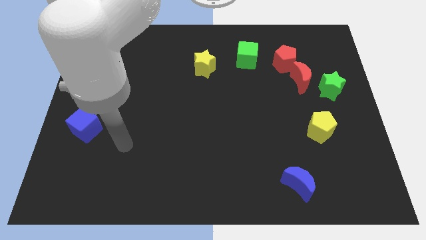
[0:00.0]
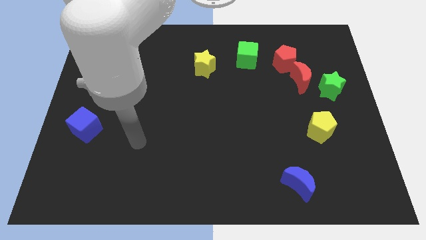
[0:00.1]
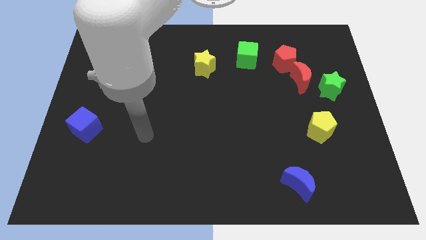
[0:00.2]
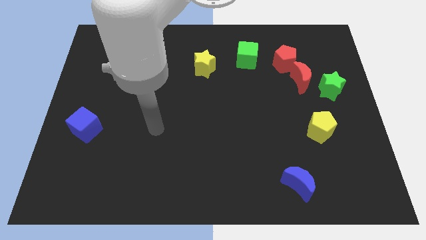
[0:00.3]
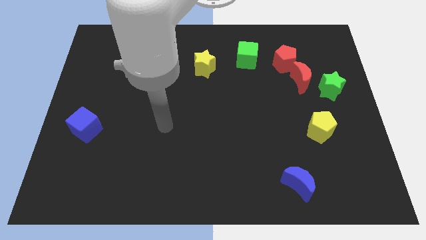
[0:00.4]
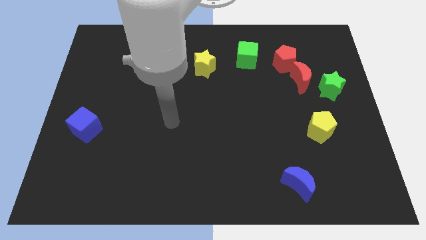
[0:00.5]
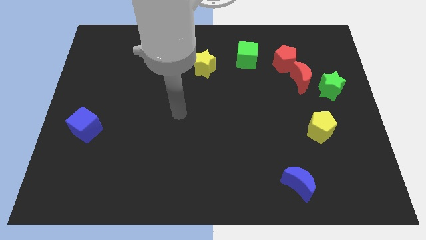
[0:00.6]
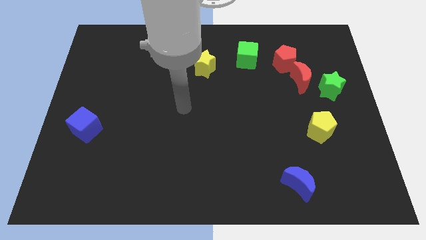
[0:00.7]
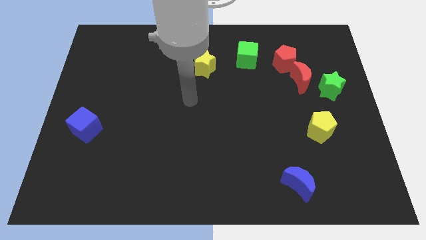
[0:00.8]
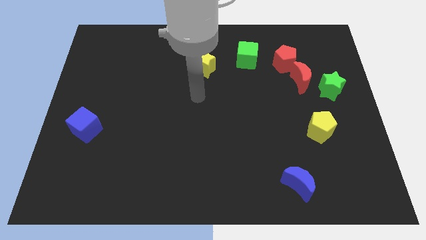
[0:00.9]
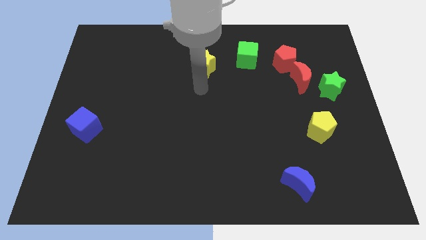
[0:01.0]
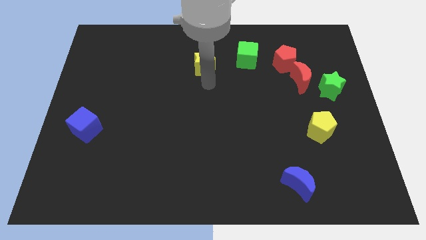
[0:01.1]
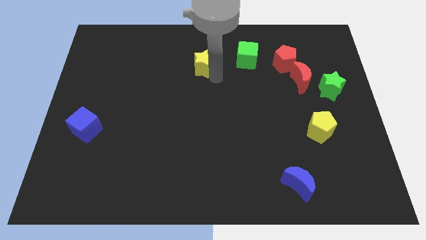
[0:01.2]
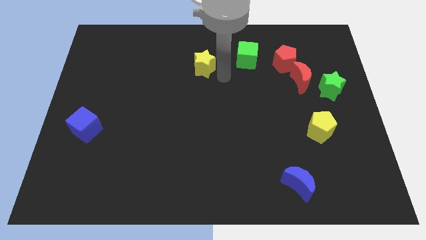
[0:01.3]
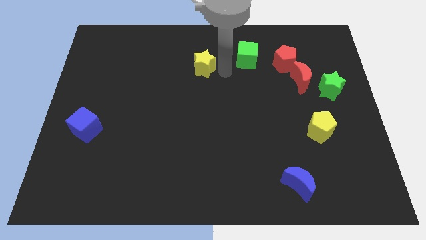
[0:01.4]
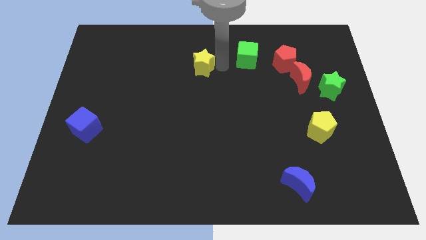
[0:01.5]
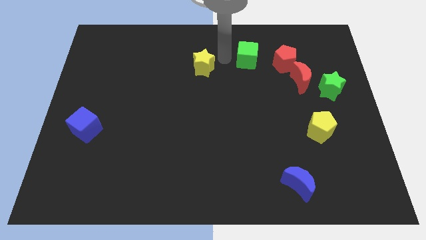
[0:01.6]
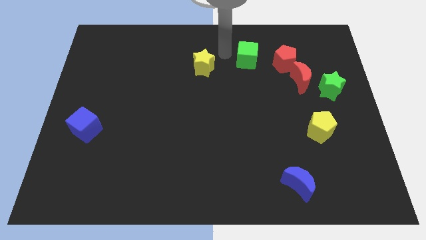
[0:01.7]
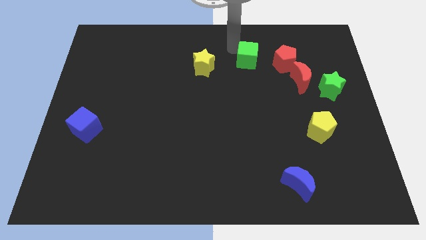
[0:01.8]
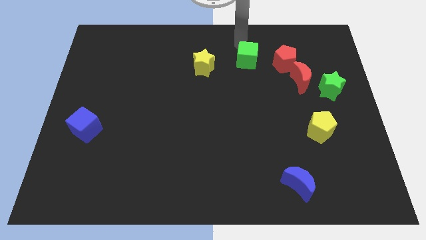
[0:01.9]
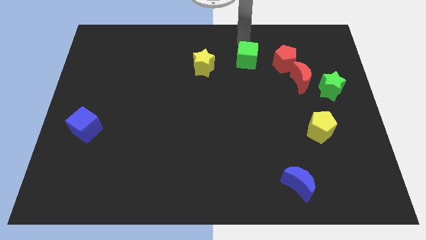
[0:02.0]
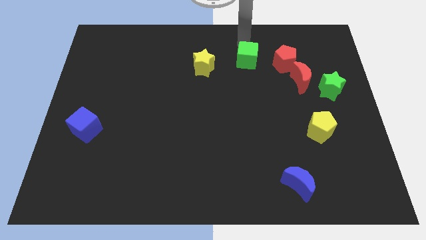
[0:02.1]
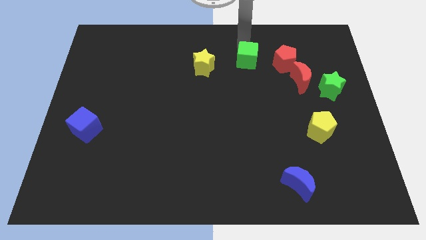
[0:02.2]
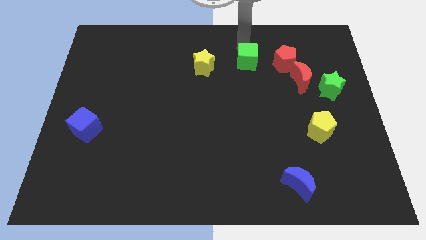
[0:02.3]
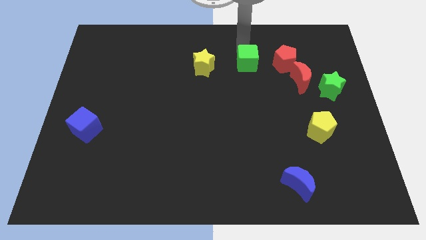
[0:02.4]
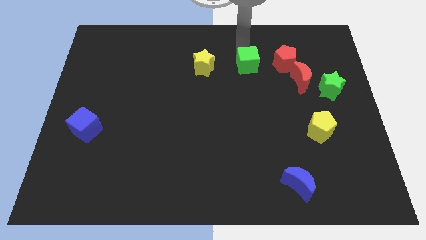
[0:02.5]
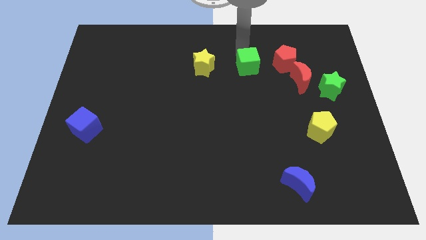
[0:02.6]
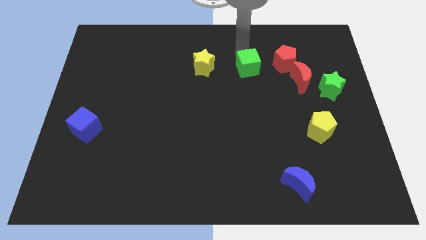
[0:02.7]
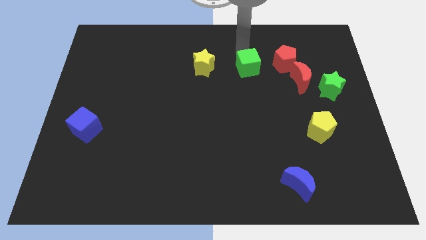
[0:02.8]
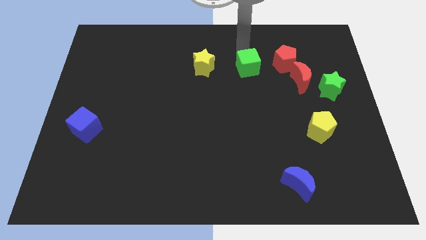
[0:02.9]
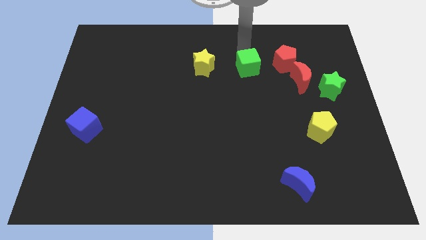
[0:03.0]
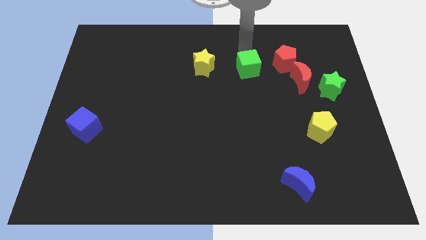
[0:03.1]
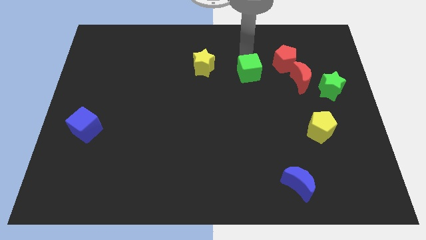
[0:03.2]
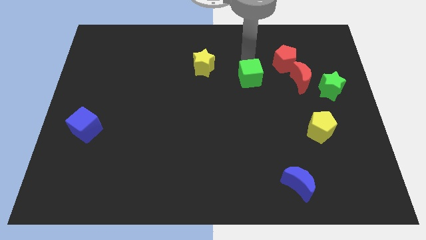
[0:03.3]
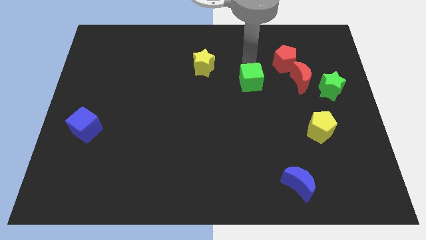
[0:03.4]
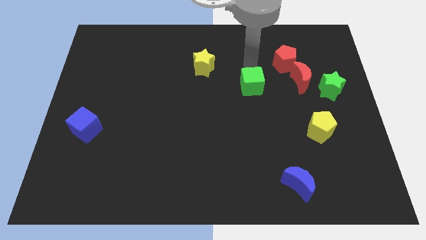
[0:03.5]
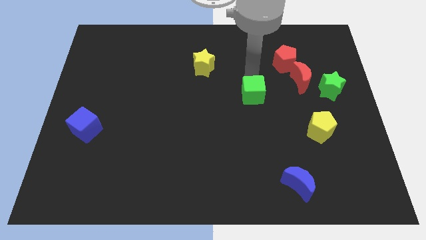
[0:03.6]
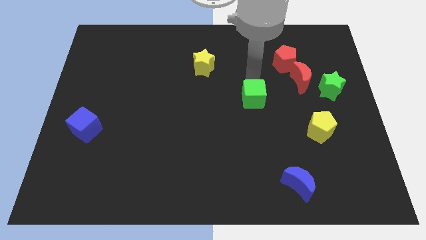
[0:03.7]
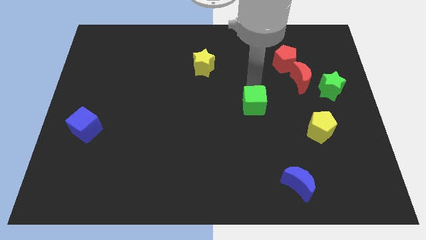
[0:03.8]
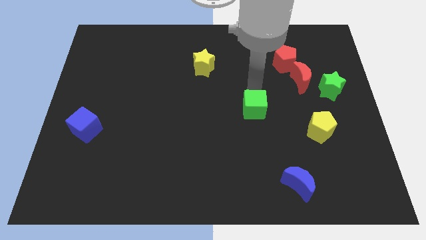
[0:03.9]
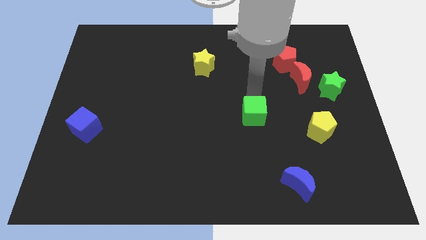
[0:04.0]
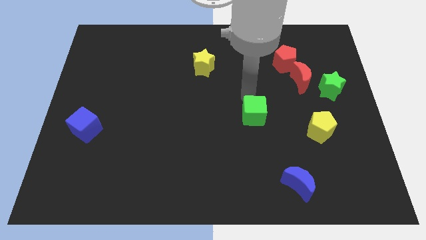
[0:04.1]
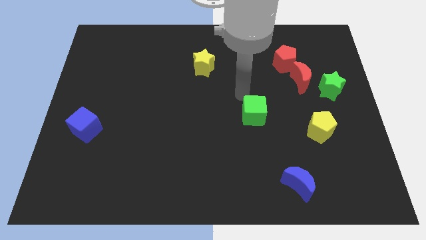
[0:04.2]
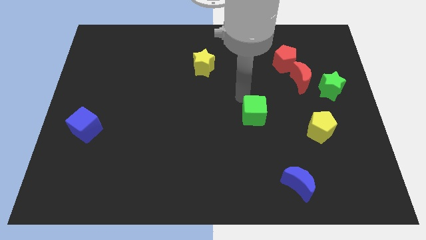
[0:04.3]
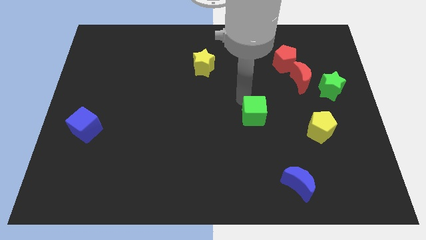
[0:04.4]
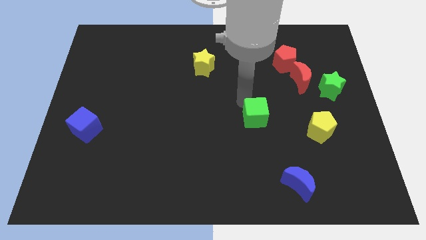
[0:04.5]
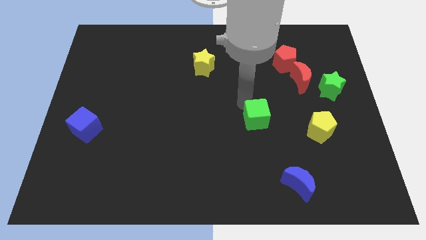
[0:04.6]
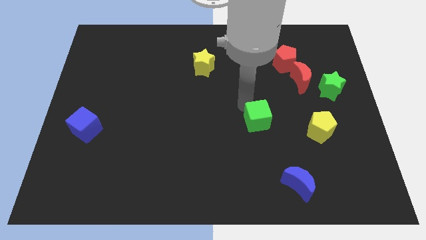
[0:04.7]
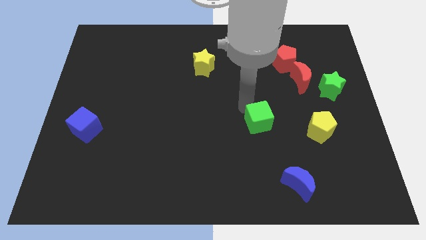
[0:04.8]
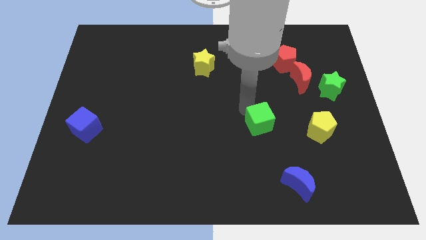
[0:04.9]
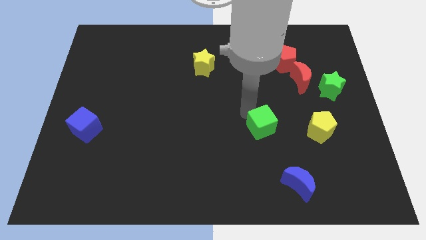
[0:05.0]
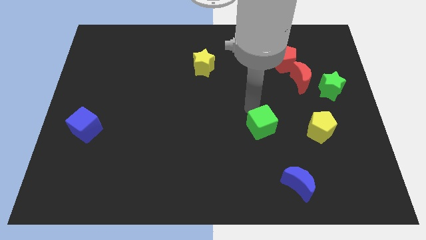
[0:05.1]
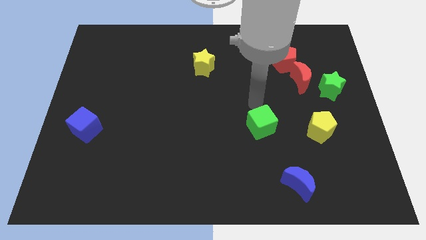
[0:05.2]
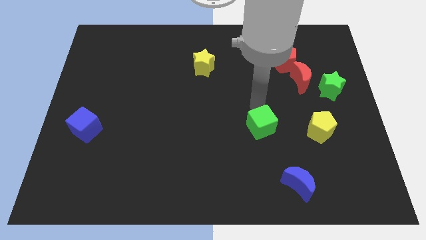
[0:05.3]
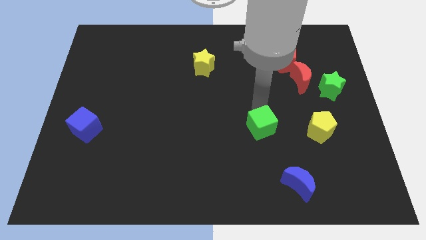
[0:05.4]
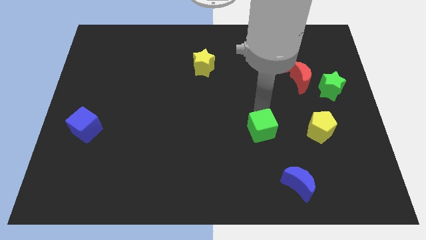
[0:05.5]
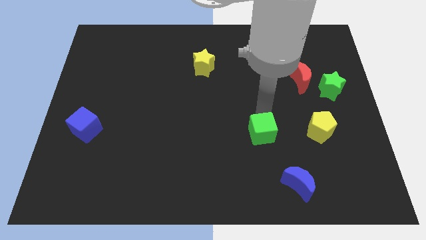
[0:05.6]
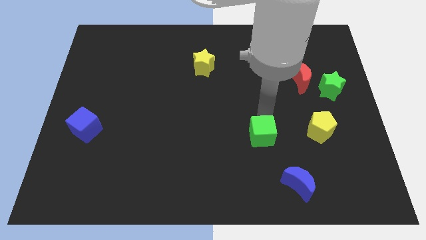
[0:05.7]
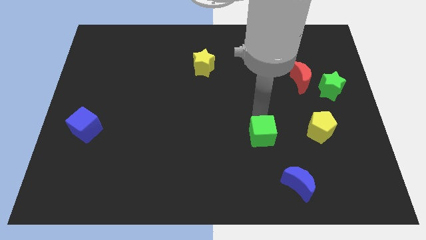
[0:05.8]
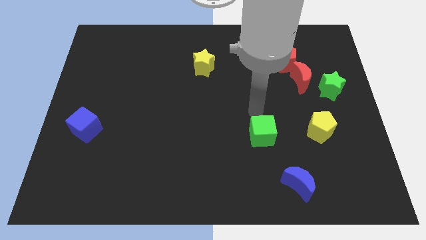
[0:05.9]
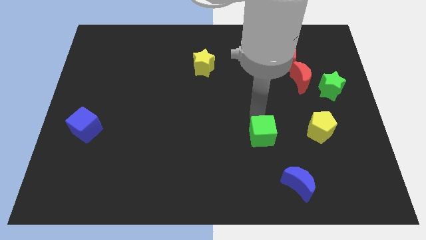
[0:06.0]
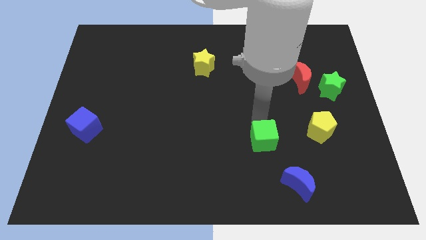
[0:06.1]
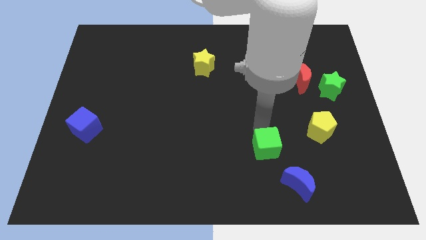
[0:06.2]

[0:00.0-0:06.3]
put the green cube to the top left side of the blue moon
